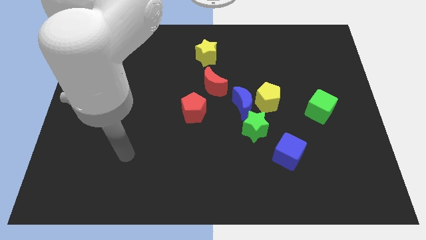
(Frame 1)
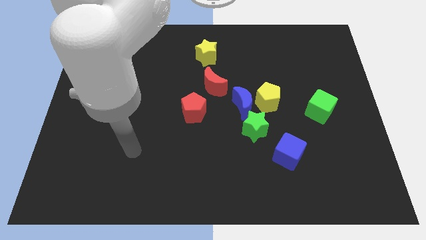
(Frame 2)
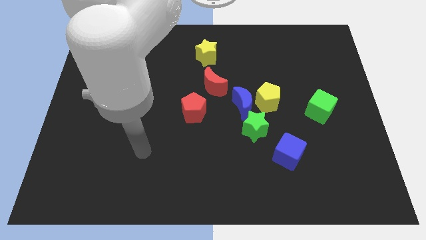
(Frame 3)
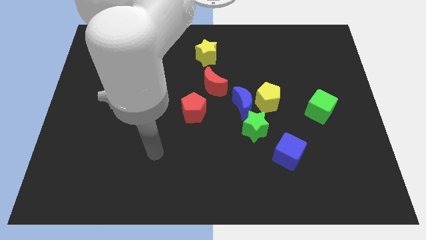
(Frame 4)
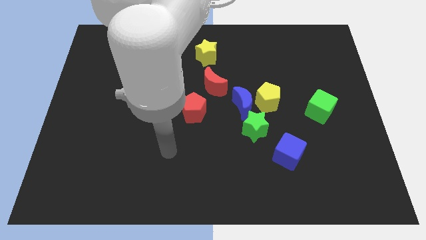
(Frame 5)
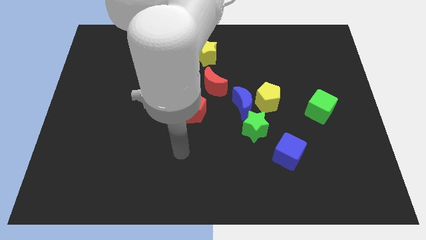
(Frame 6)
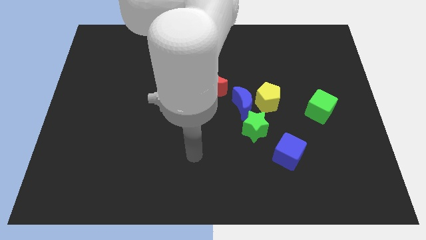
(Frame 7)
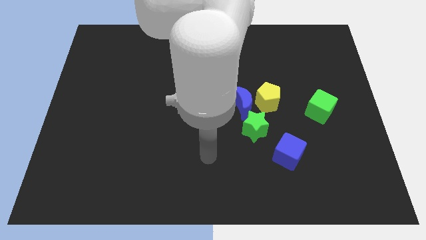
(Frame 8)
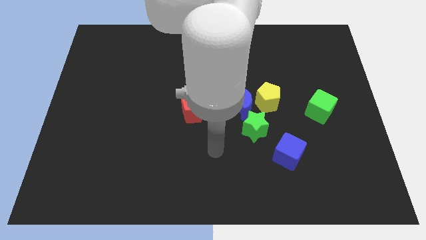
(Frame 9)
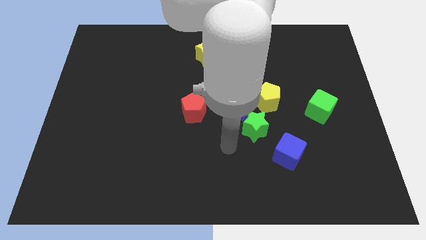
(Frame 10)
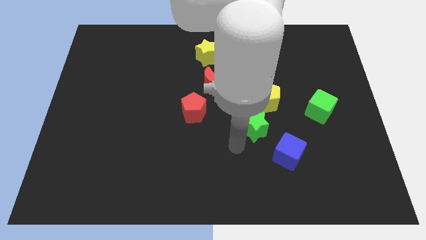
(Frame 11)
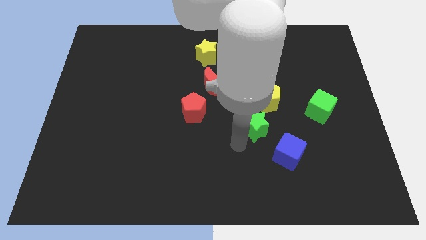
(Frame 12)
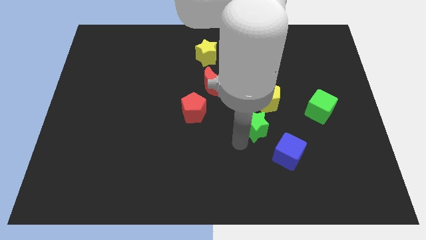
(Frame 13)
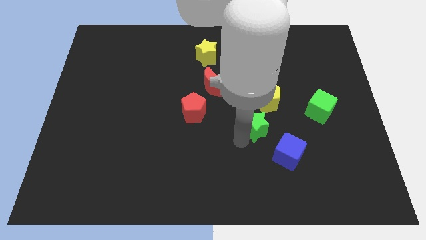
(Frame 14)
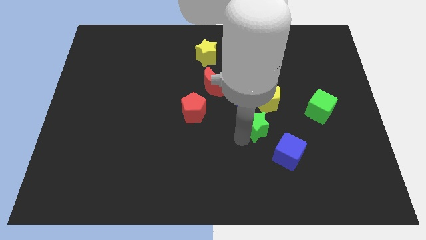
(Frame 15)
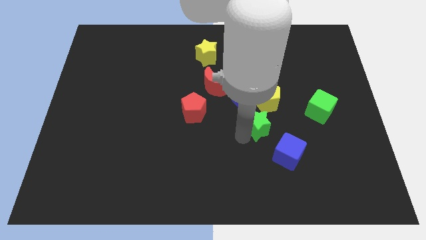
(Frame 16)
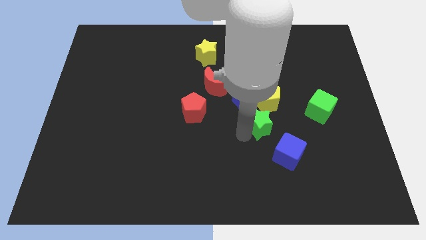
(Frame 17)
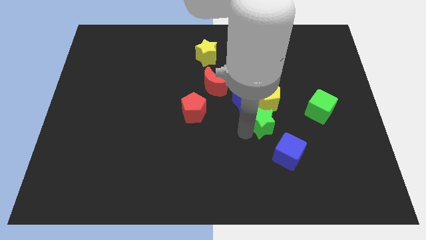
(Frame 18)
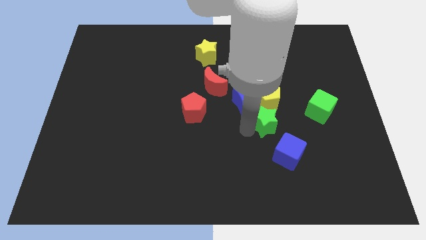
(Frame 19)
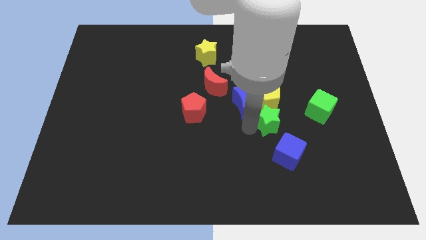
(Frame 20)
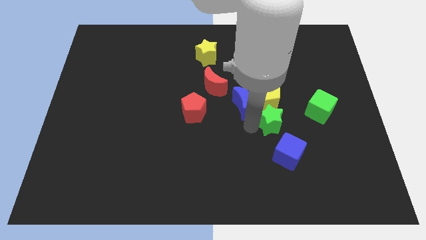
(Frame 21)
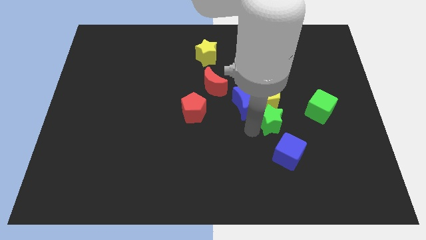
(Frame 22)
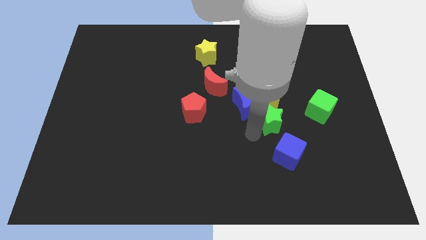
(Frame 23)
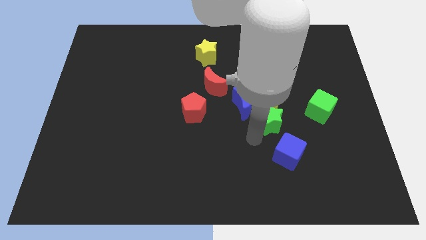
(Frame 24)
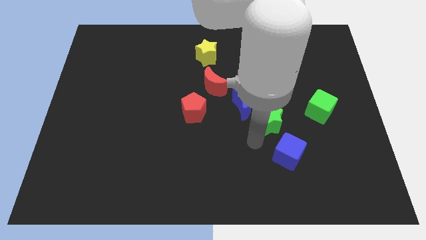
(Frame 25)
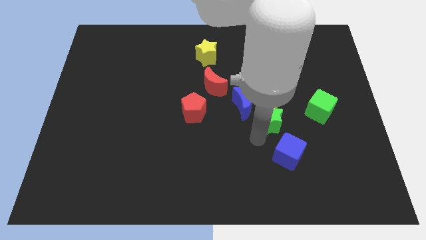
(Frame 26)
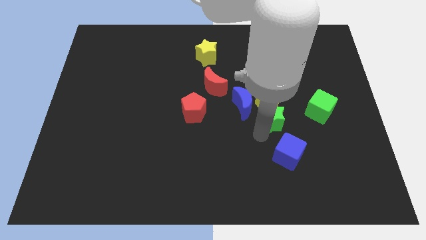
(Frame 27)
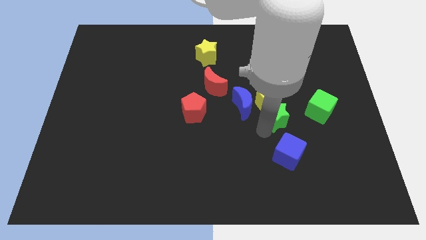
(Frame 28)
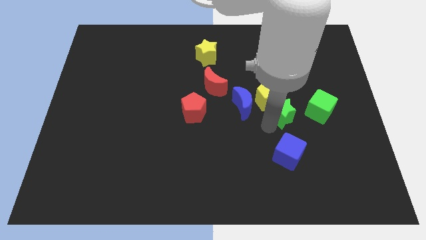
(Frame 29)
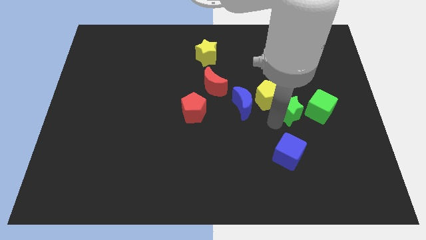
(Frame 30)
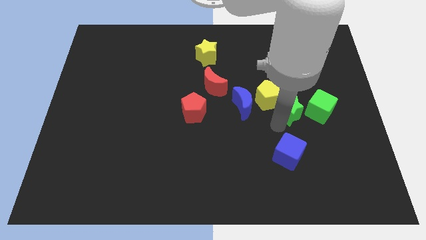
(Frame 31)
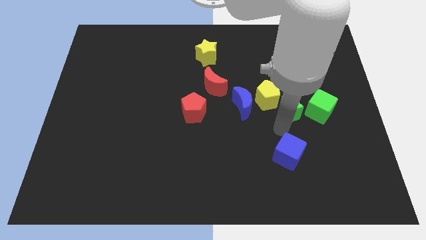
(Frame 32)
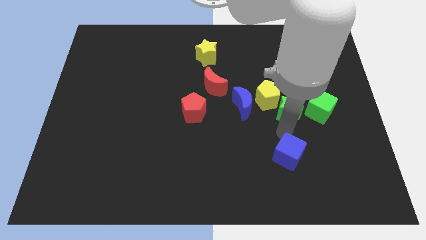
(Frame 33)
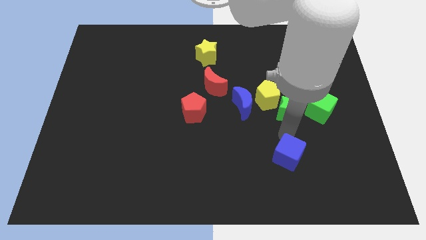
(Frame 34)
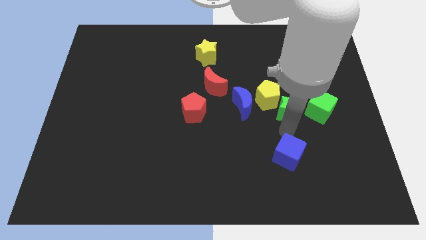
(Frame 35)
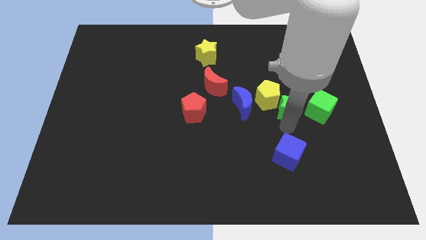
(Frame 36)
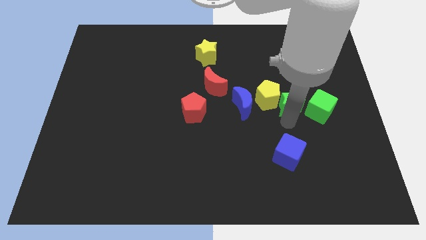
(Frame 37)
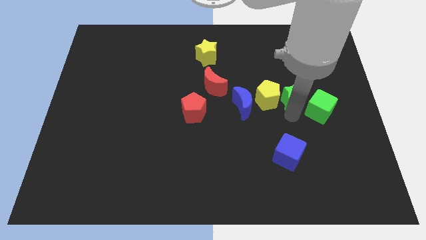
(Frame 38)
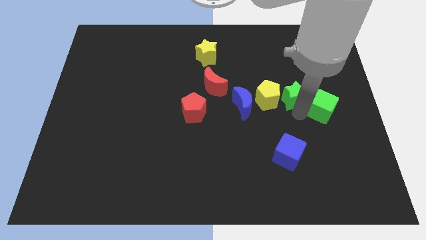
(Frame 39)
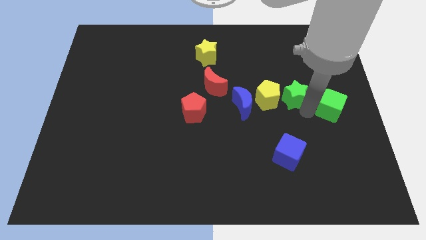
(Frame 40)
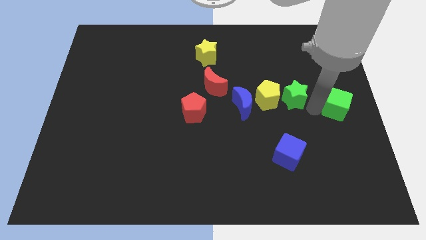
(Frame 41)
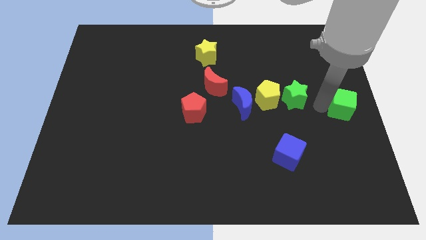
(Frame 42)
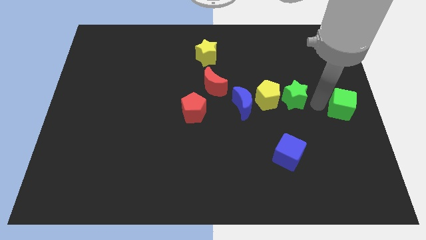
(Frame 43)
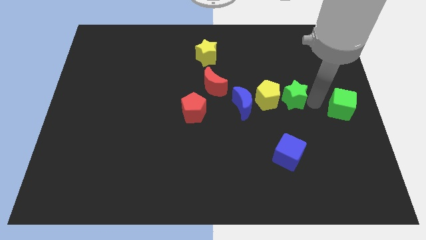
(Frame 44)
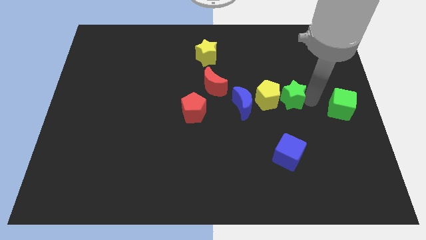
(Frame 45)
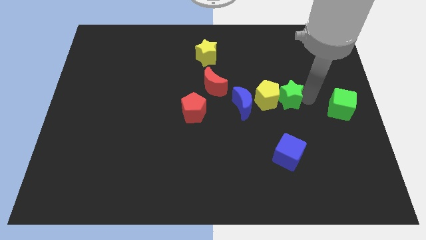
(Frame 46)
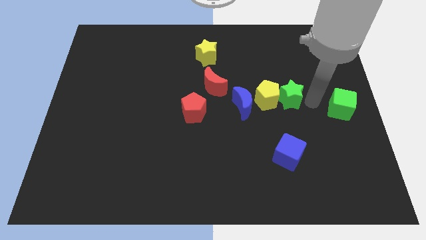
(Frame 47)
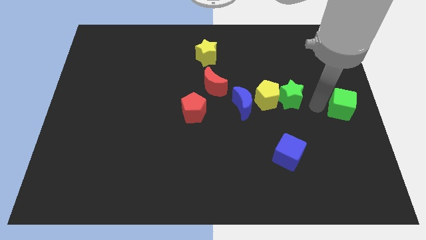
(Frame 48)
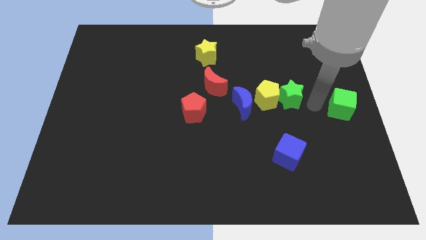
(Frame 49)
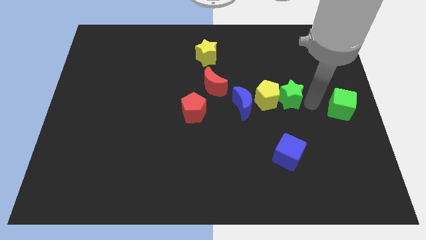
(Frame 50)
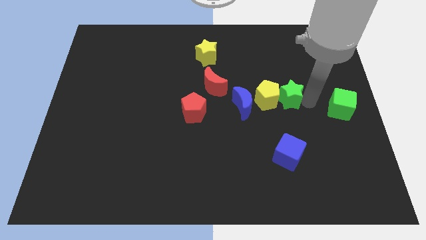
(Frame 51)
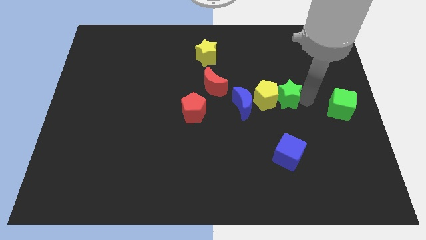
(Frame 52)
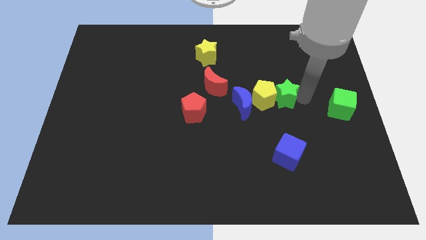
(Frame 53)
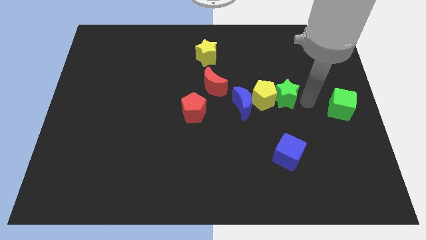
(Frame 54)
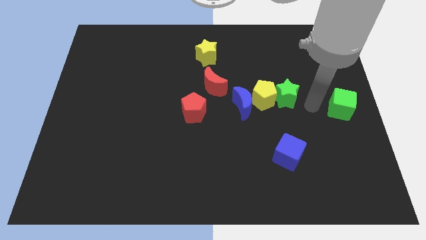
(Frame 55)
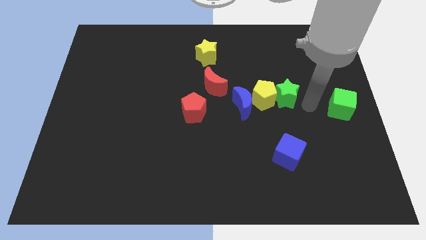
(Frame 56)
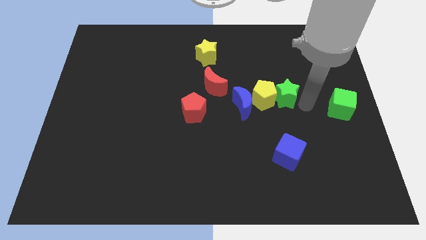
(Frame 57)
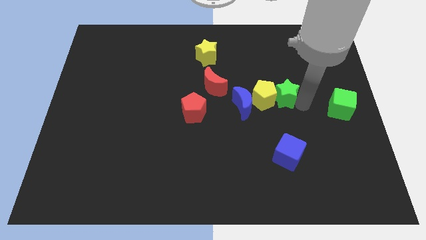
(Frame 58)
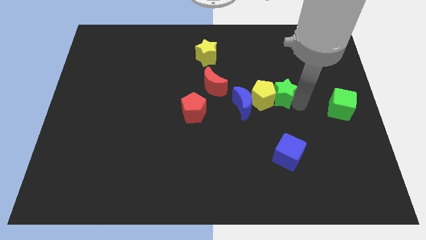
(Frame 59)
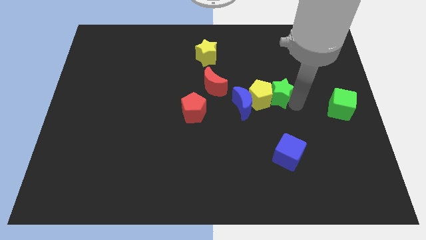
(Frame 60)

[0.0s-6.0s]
slide the green star to the top right of the blue moon

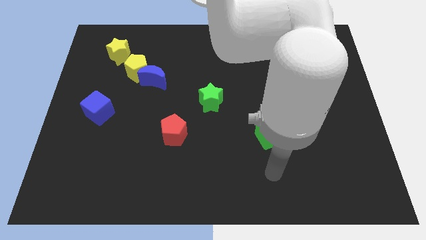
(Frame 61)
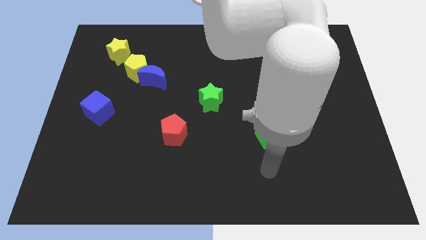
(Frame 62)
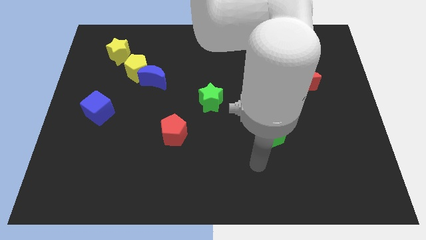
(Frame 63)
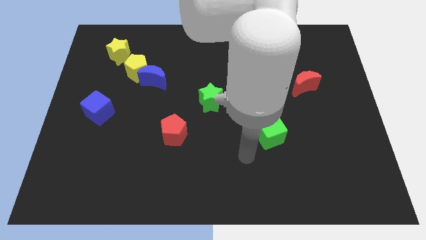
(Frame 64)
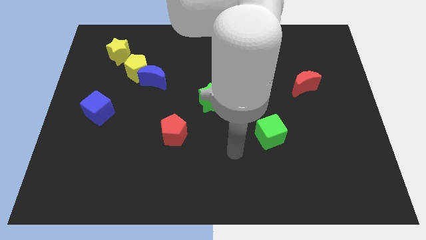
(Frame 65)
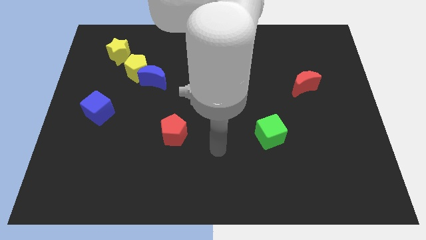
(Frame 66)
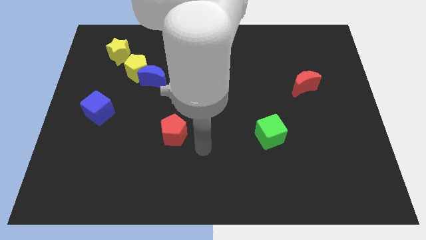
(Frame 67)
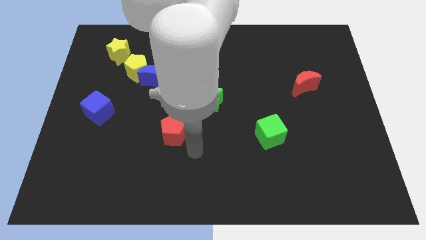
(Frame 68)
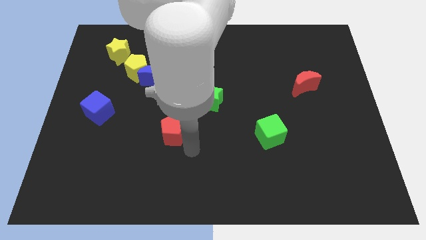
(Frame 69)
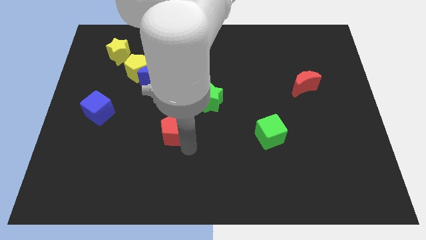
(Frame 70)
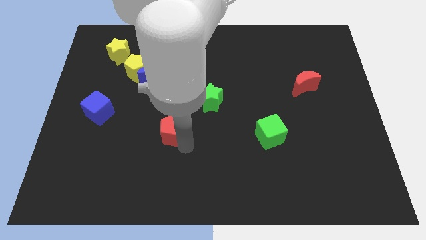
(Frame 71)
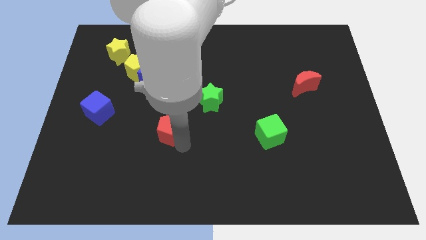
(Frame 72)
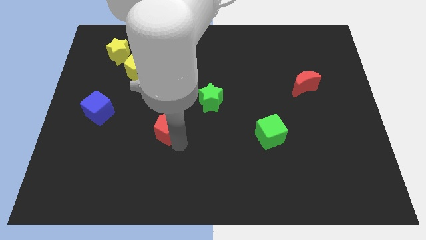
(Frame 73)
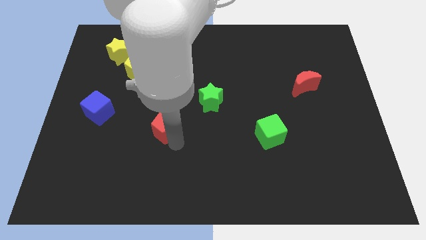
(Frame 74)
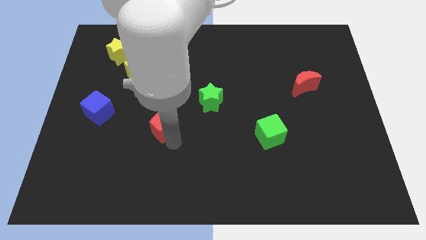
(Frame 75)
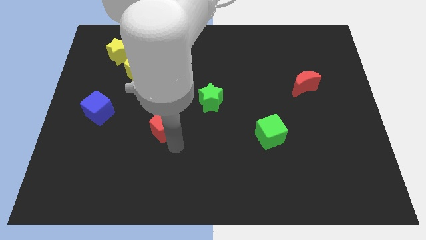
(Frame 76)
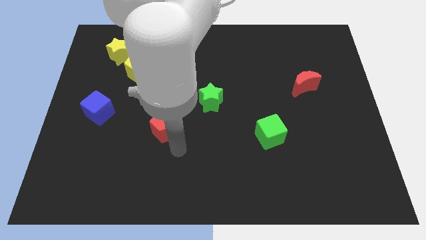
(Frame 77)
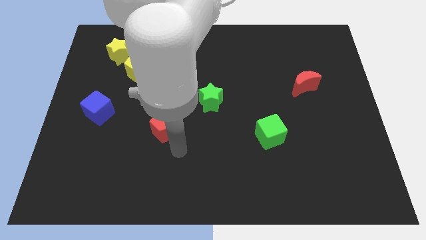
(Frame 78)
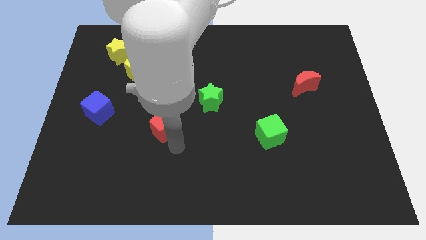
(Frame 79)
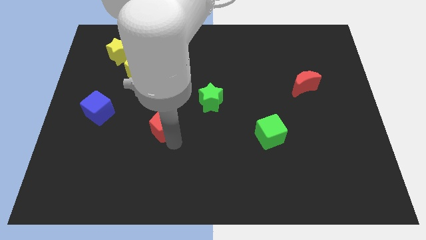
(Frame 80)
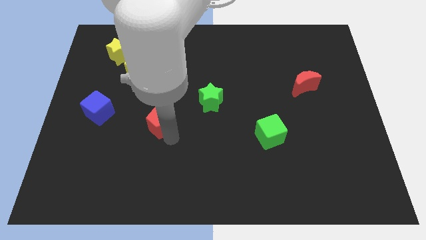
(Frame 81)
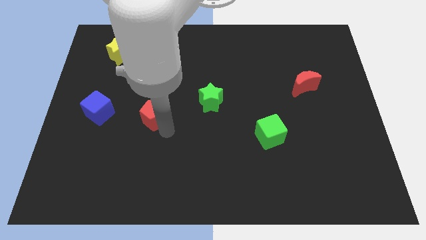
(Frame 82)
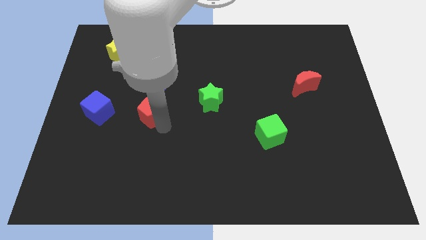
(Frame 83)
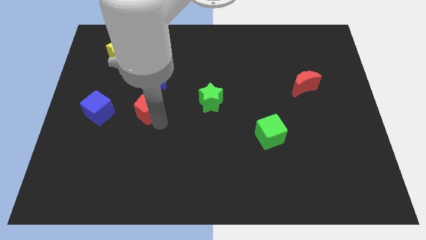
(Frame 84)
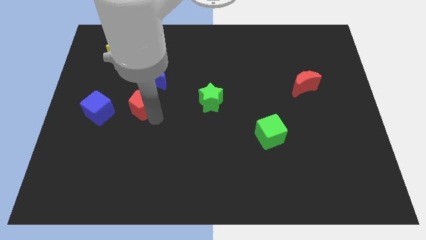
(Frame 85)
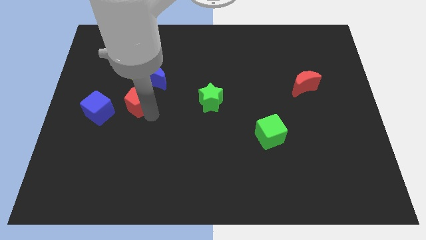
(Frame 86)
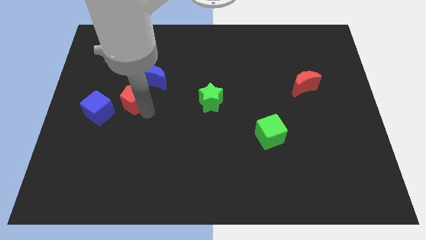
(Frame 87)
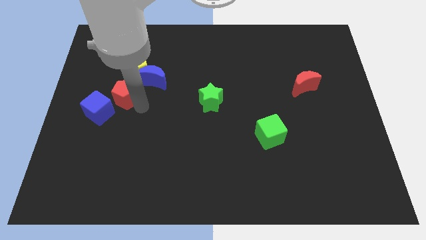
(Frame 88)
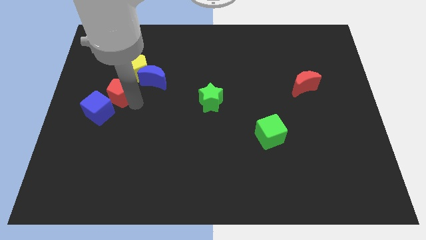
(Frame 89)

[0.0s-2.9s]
slide the red pentagon left of the blue moon
